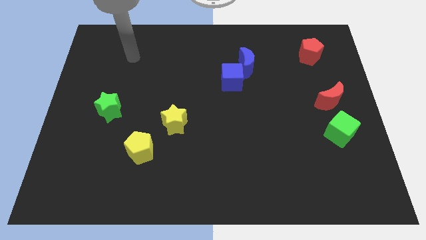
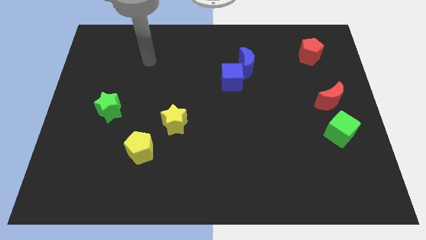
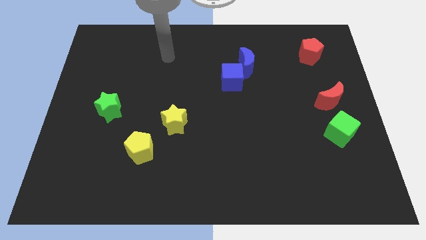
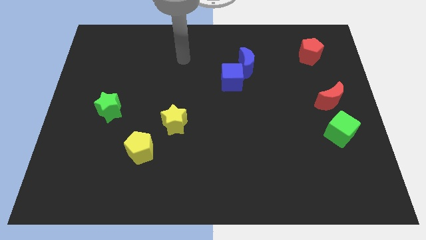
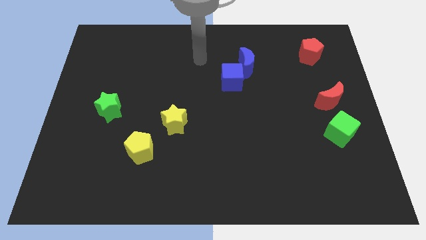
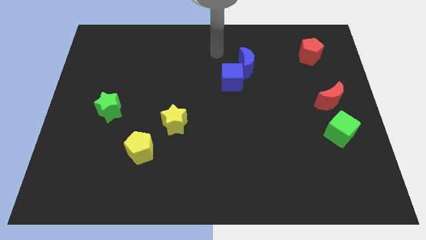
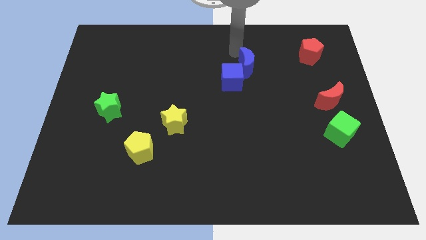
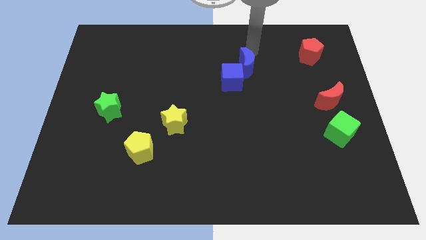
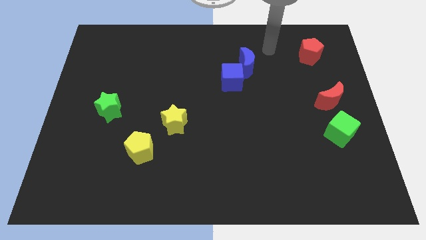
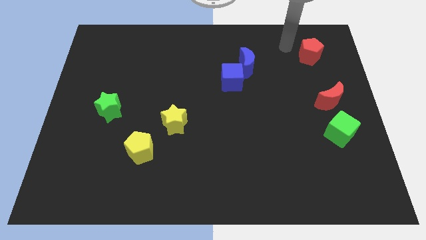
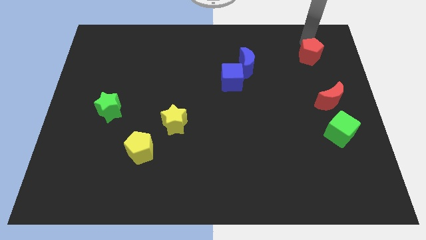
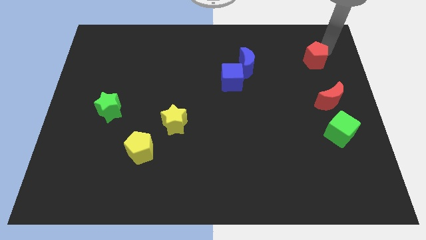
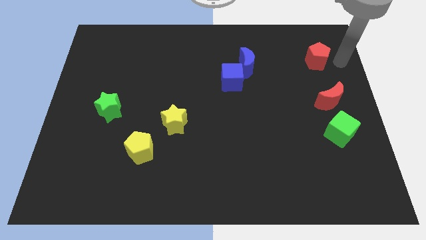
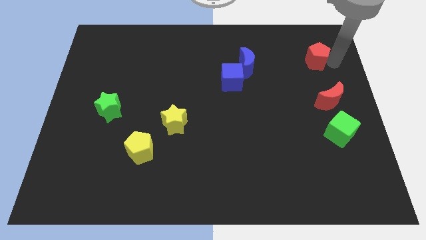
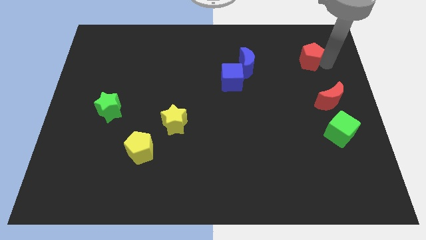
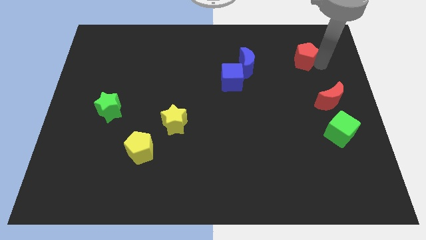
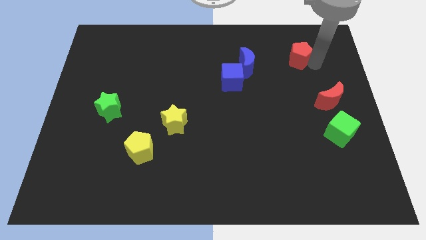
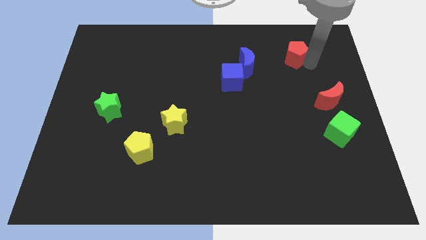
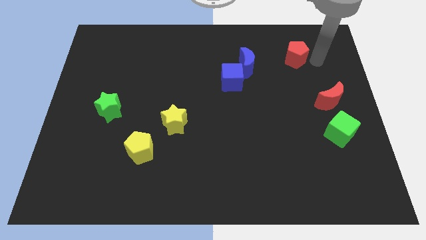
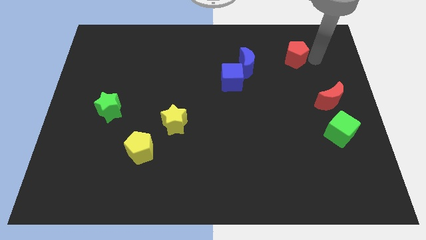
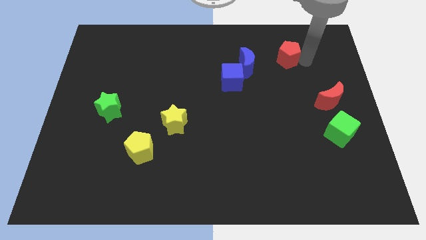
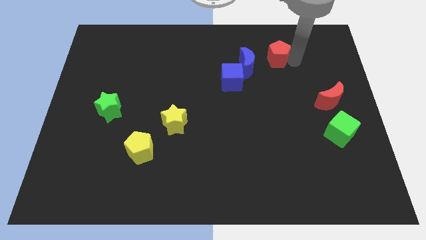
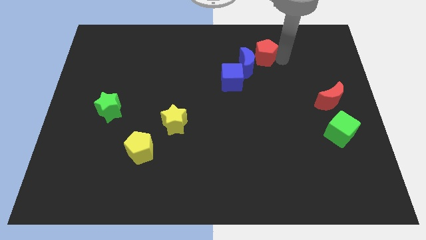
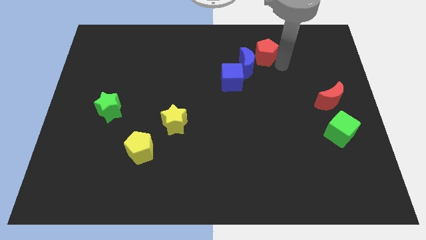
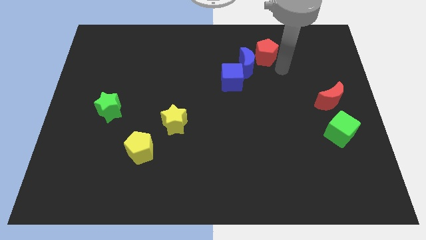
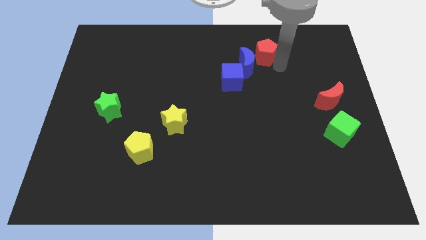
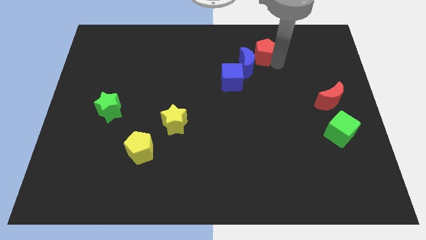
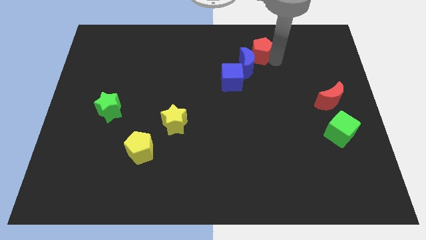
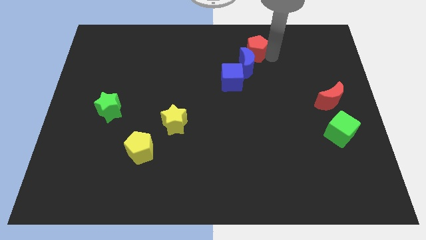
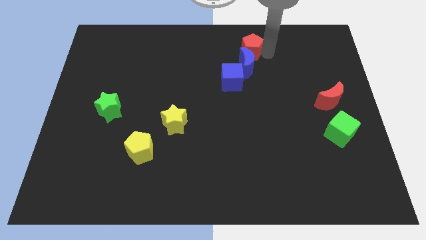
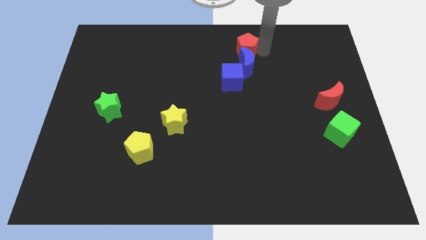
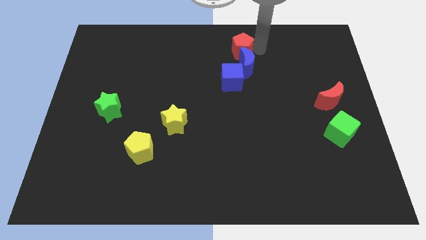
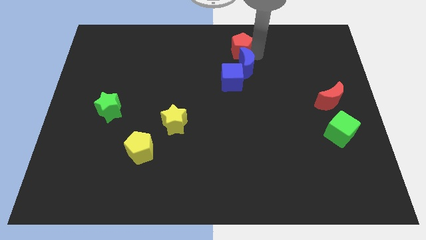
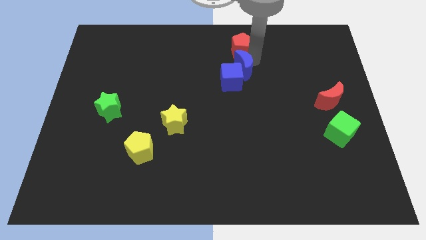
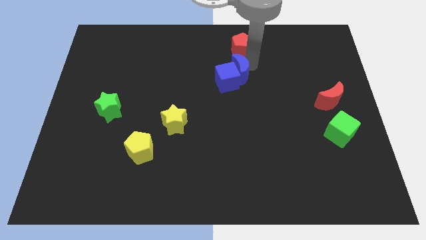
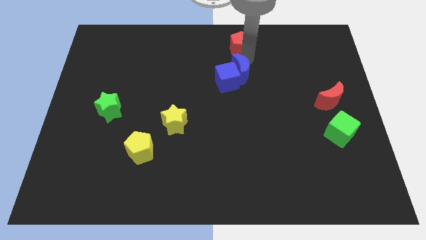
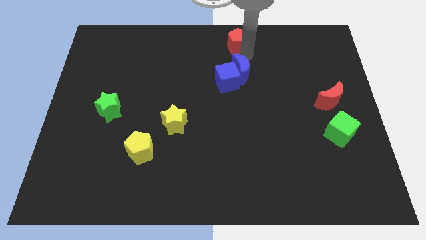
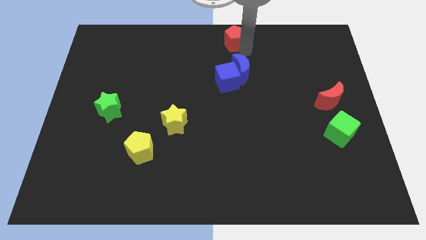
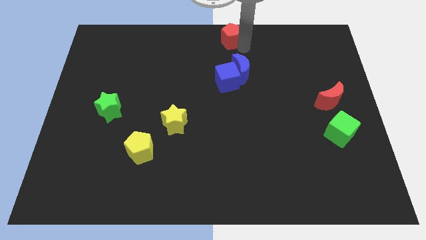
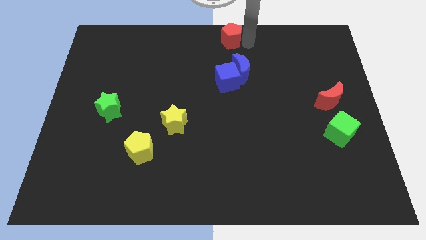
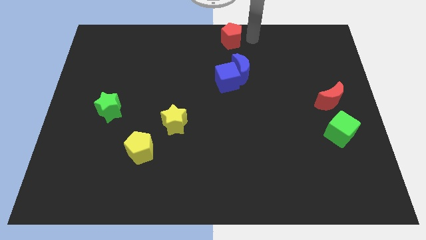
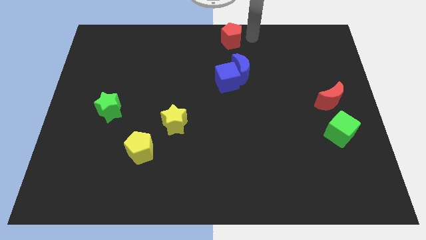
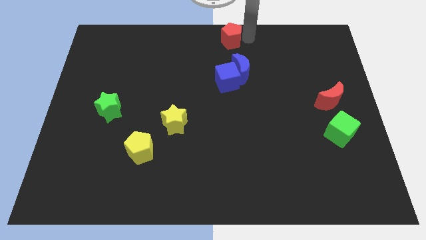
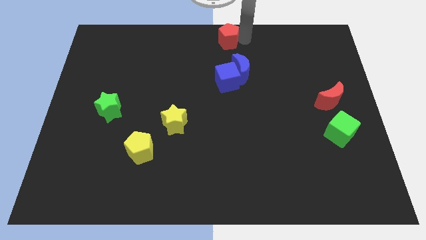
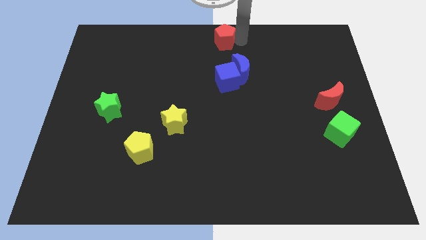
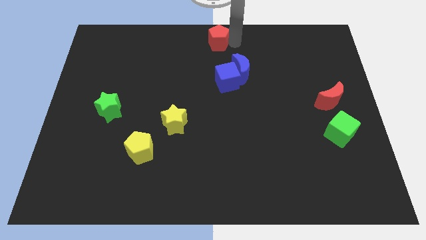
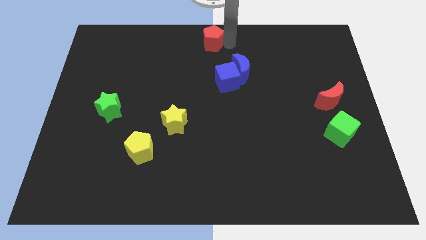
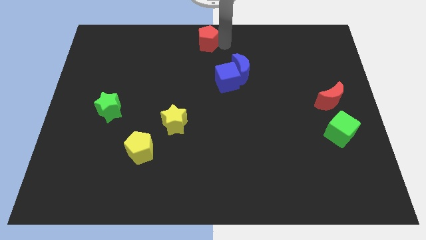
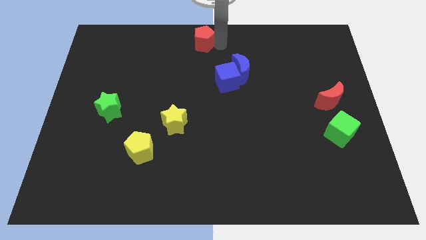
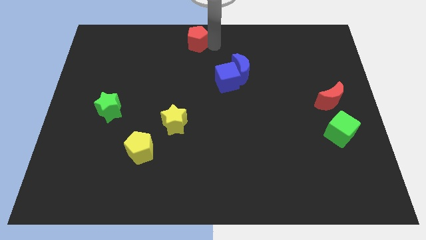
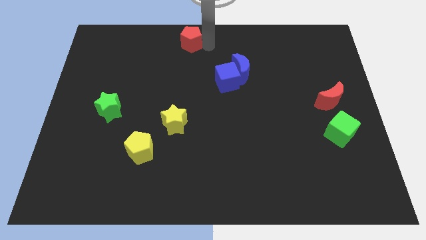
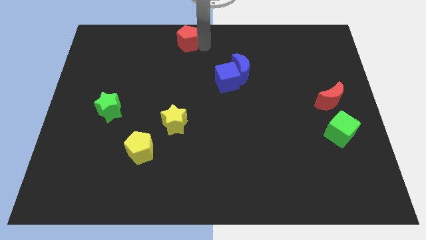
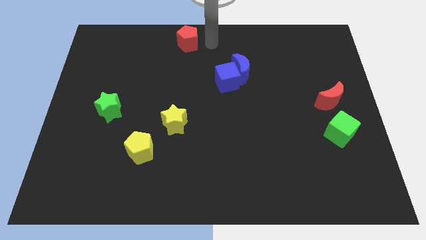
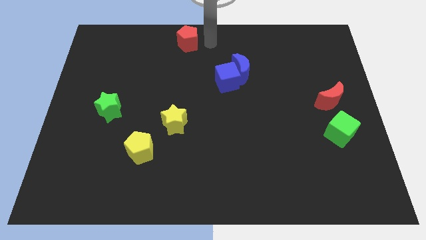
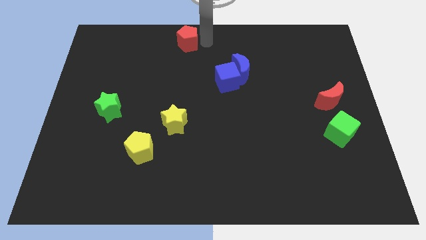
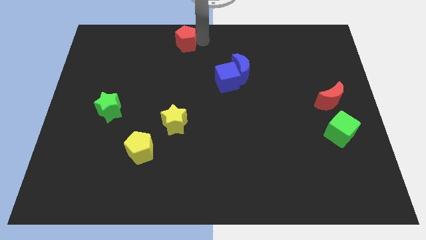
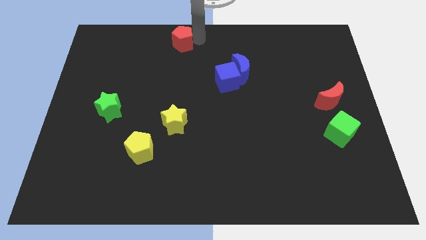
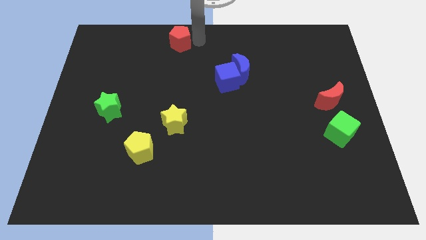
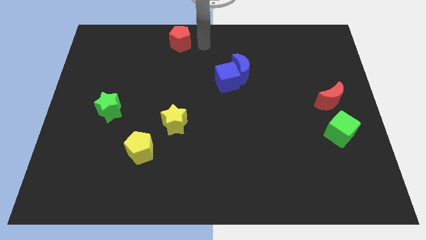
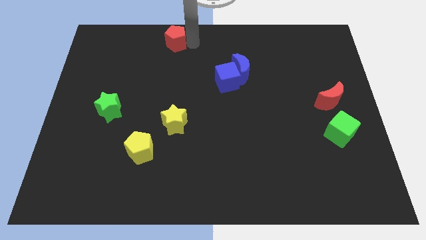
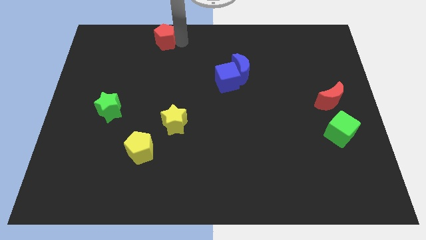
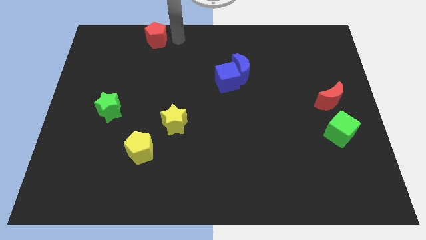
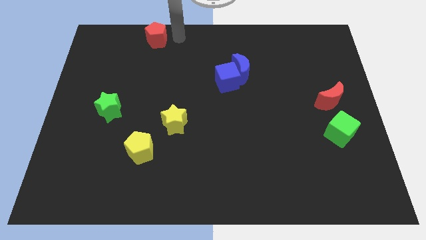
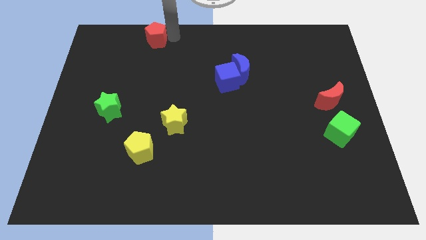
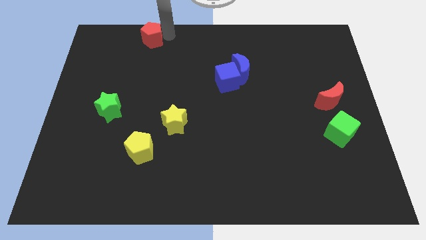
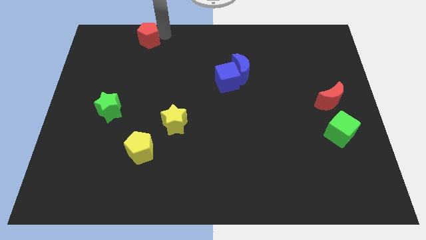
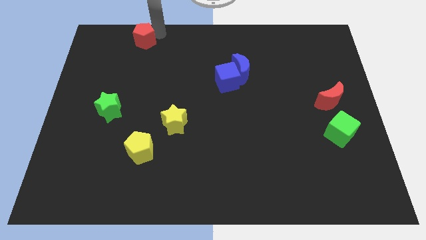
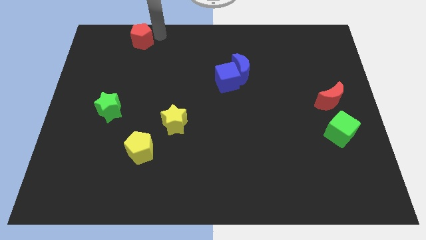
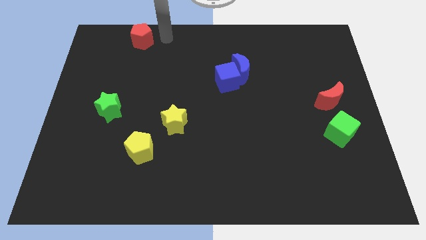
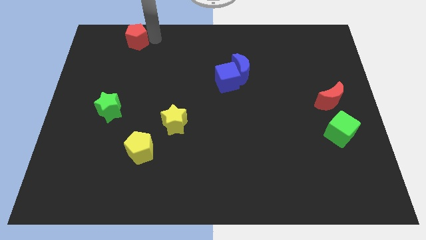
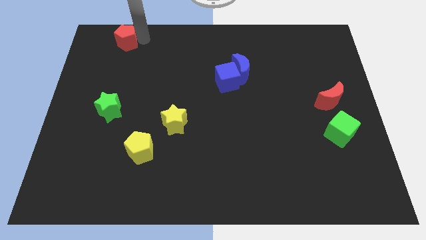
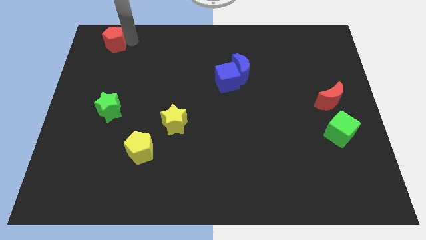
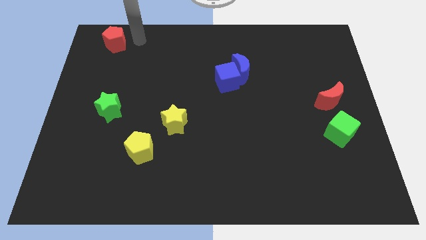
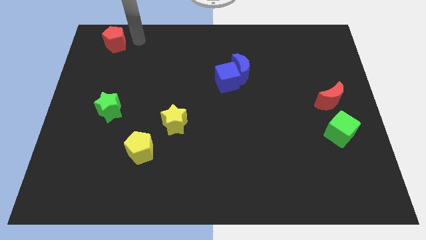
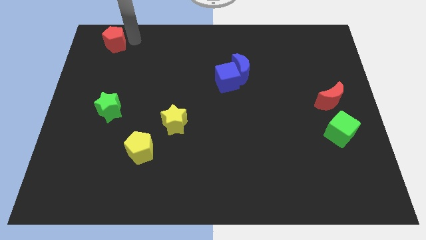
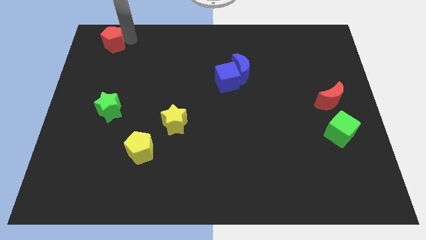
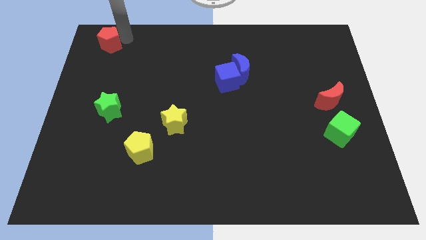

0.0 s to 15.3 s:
slide the red pentagon to the top left corner
